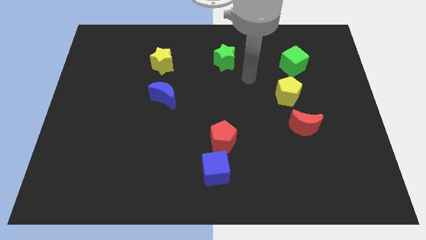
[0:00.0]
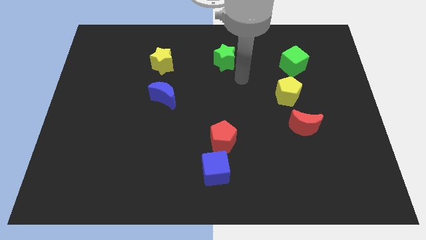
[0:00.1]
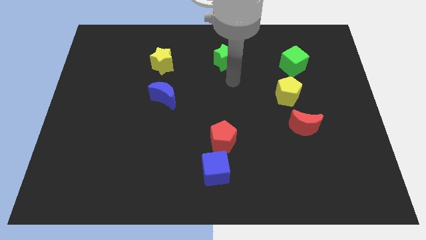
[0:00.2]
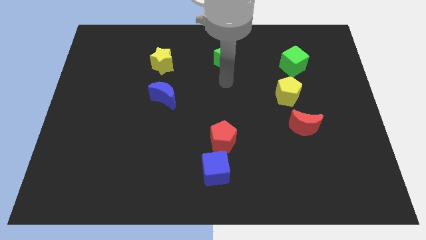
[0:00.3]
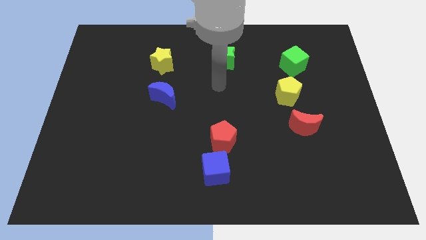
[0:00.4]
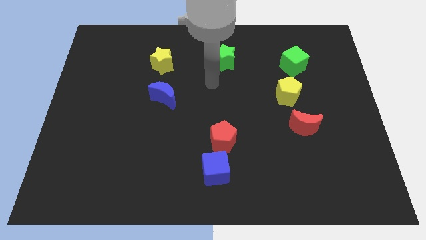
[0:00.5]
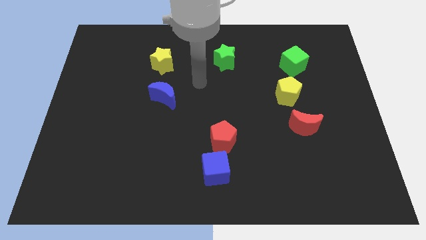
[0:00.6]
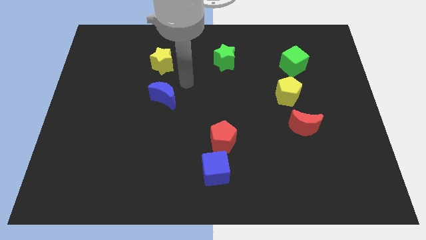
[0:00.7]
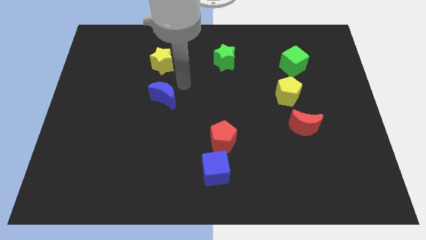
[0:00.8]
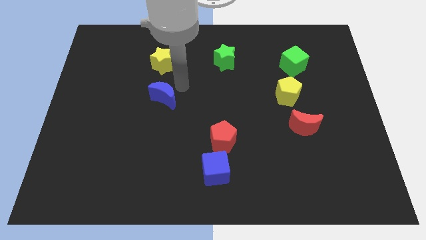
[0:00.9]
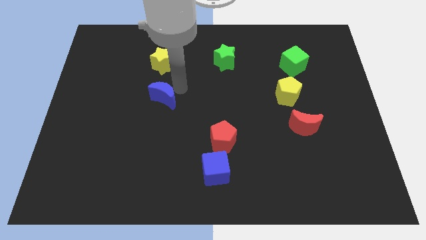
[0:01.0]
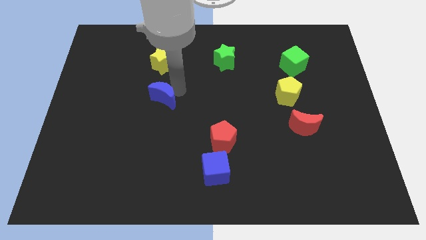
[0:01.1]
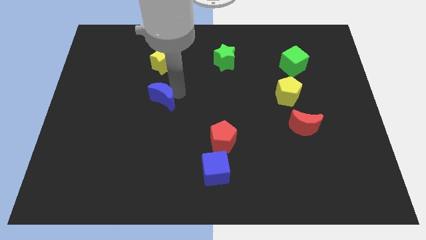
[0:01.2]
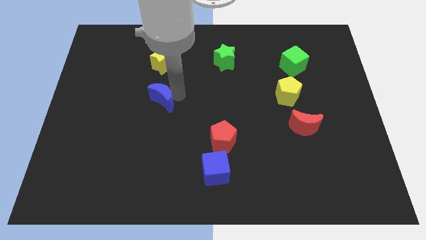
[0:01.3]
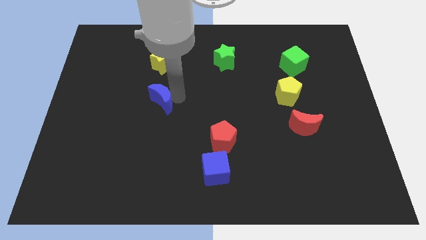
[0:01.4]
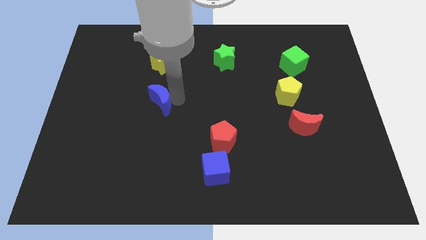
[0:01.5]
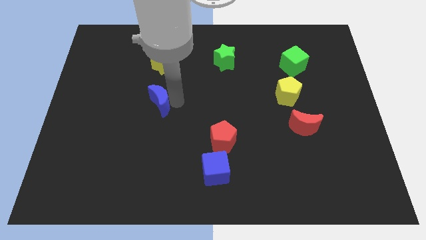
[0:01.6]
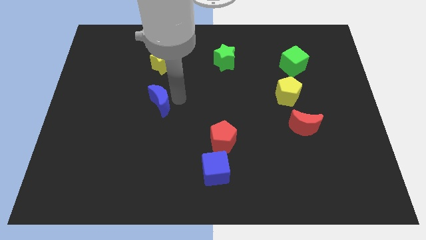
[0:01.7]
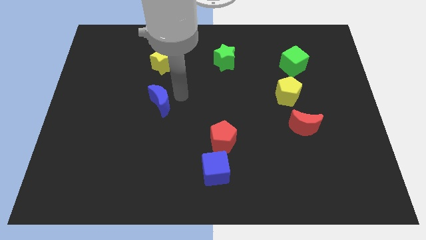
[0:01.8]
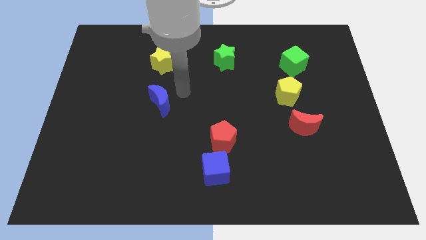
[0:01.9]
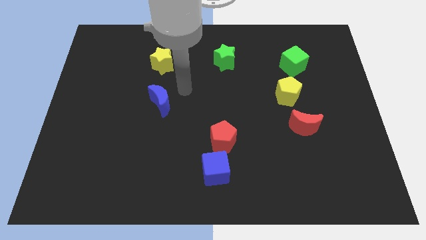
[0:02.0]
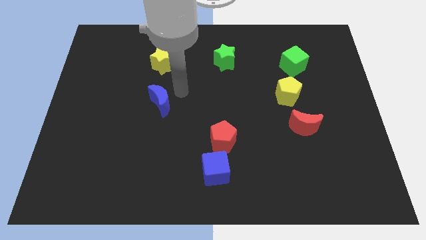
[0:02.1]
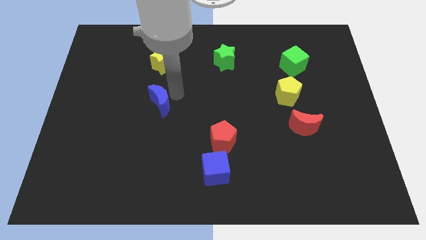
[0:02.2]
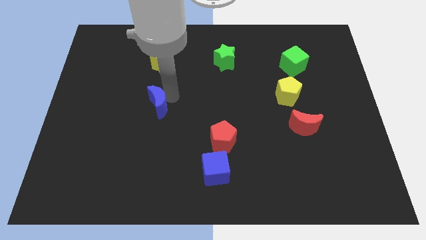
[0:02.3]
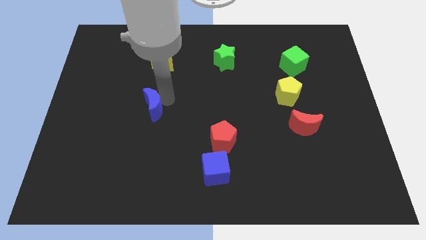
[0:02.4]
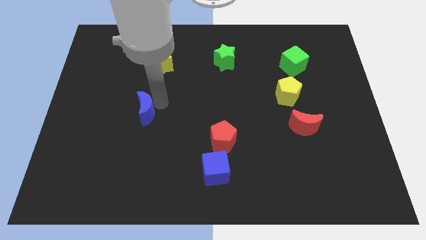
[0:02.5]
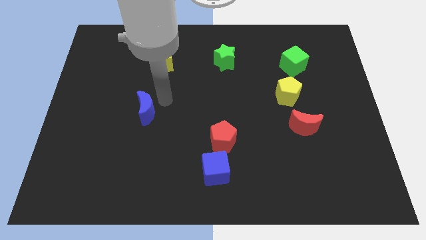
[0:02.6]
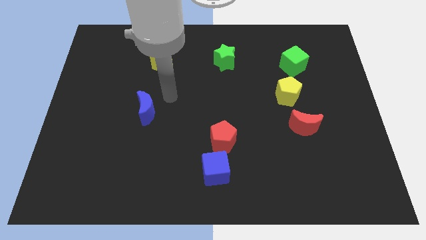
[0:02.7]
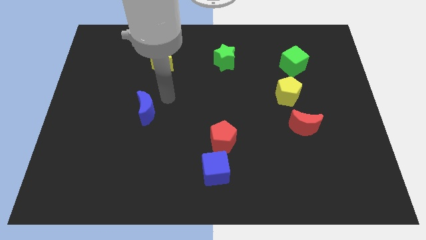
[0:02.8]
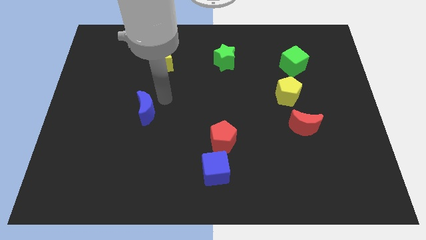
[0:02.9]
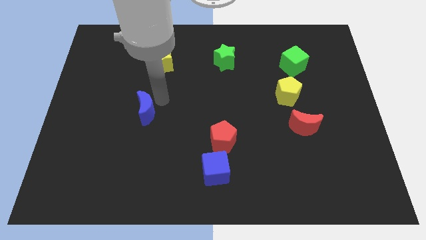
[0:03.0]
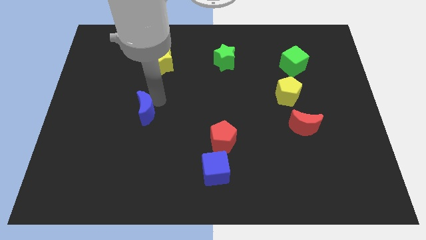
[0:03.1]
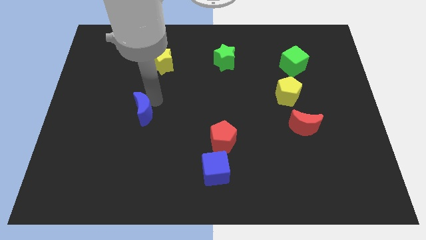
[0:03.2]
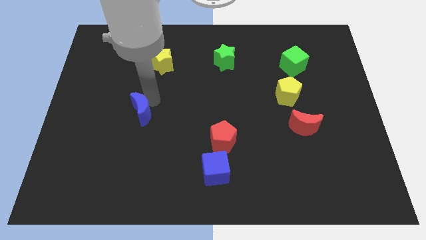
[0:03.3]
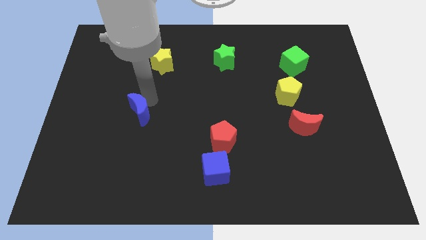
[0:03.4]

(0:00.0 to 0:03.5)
move the blue moon somewhat down and to the left diagonally

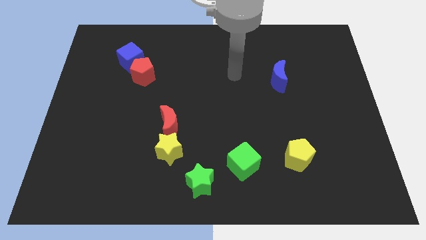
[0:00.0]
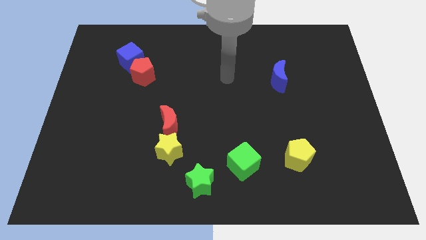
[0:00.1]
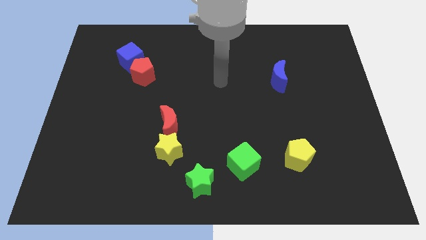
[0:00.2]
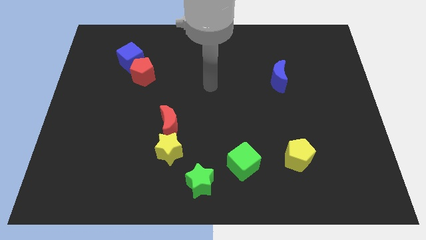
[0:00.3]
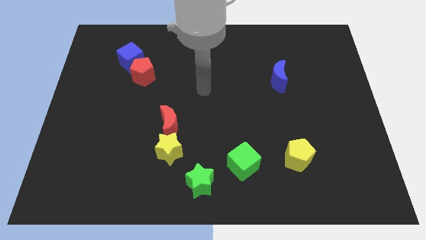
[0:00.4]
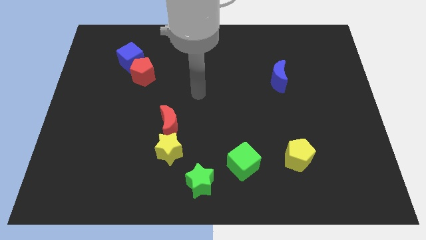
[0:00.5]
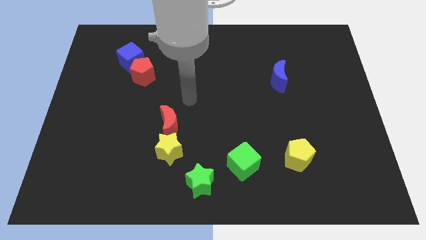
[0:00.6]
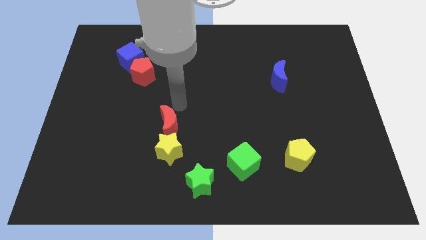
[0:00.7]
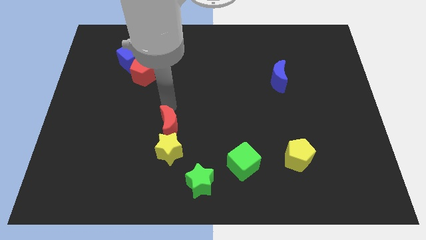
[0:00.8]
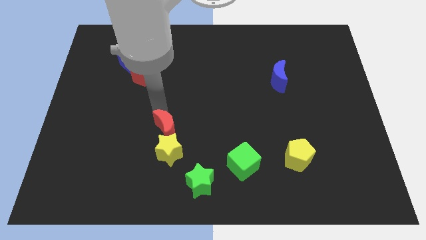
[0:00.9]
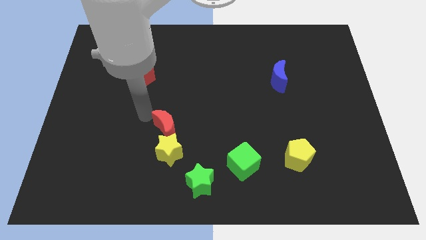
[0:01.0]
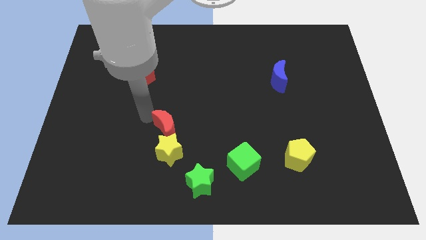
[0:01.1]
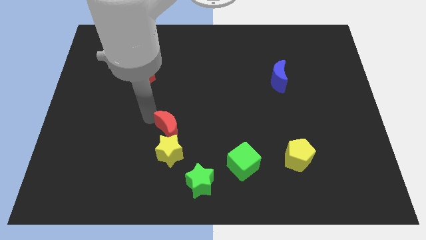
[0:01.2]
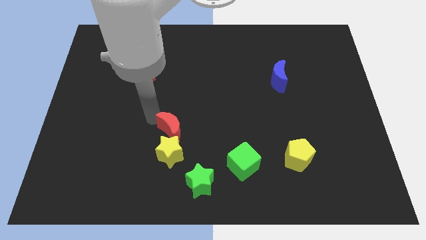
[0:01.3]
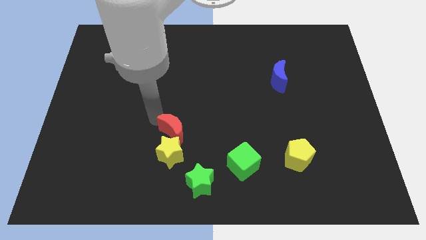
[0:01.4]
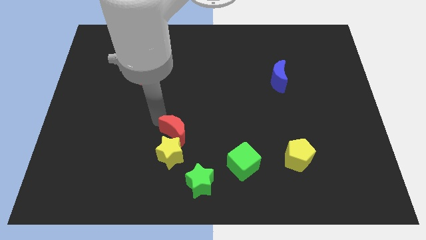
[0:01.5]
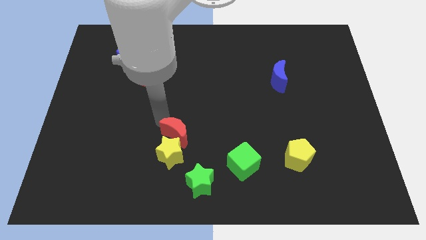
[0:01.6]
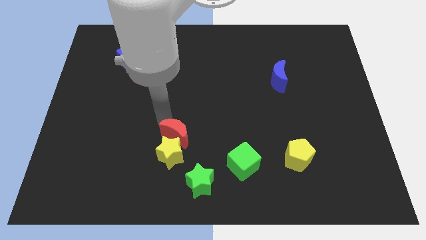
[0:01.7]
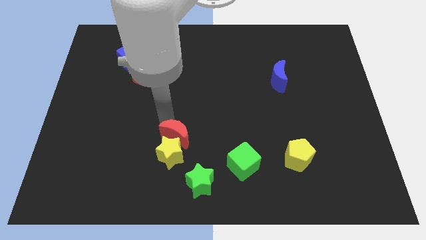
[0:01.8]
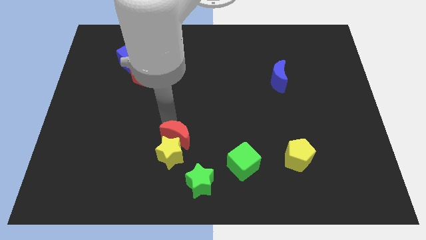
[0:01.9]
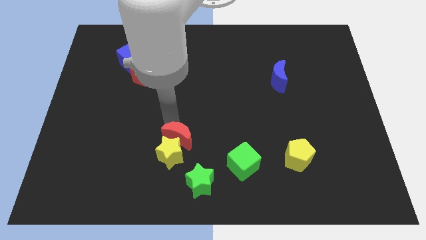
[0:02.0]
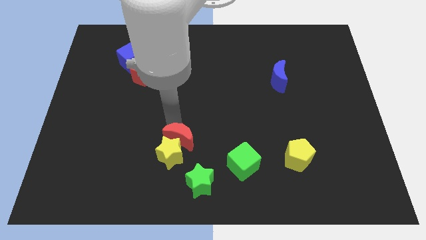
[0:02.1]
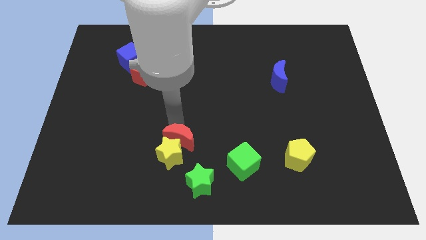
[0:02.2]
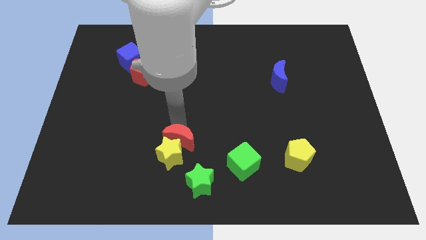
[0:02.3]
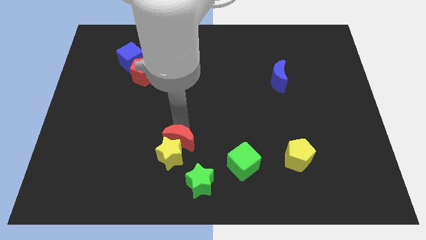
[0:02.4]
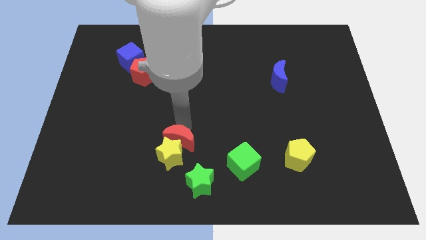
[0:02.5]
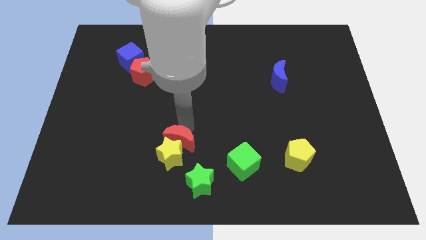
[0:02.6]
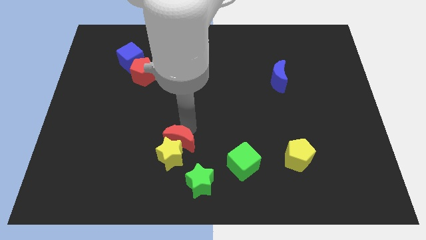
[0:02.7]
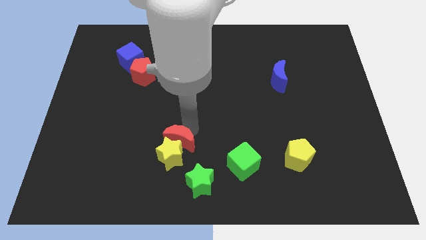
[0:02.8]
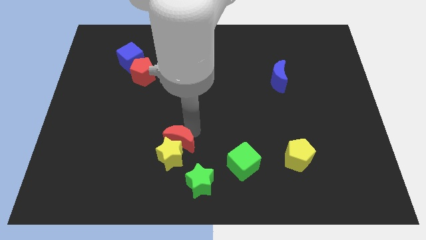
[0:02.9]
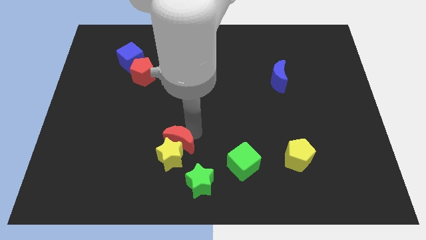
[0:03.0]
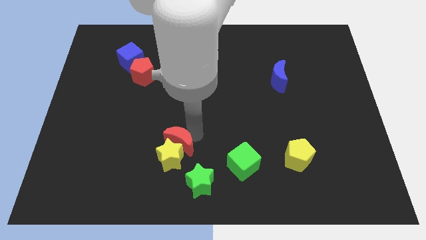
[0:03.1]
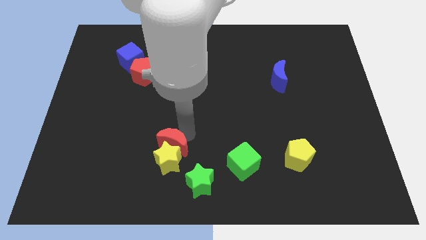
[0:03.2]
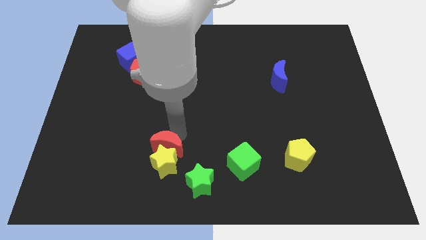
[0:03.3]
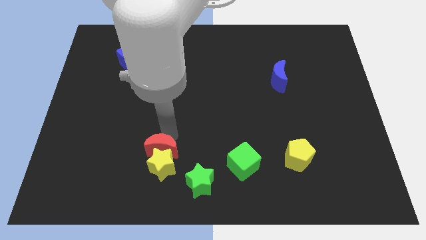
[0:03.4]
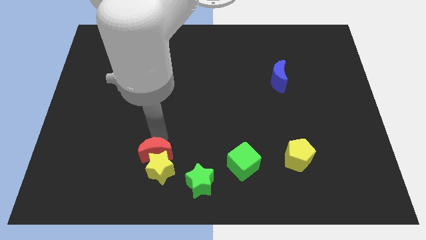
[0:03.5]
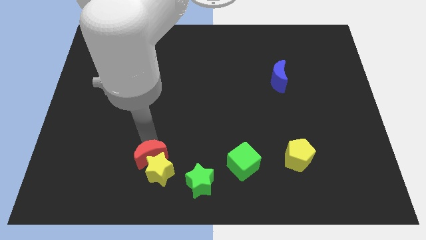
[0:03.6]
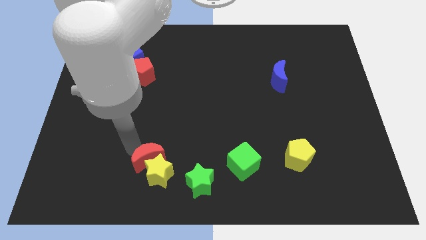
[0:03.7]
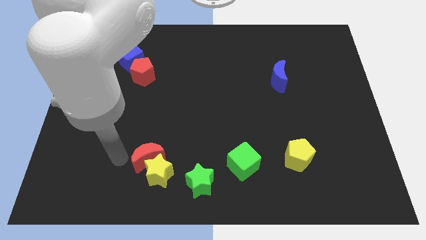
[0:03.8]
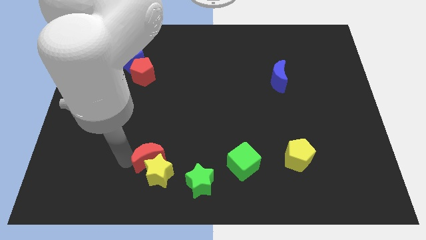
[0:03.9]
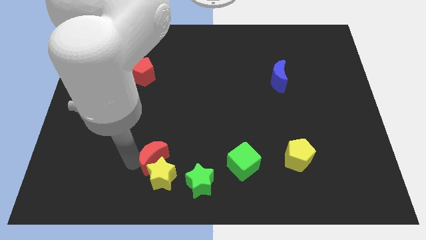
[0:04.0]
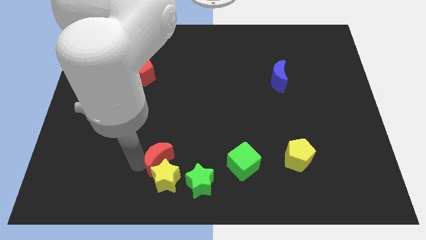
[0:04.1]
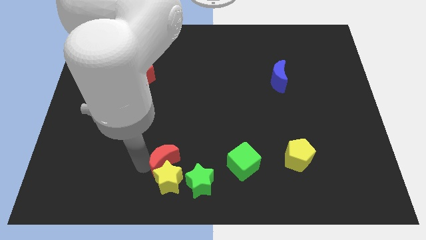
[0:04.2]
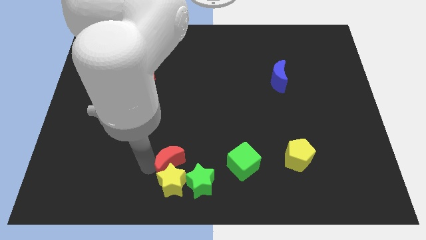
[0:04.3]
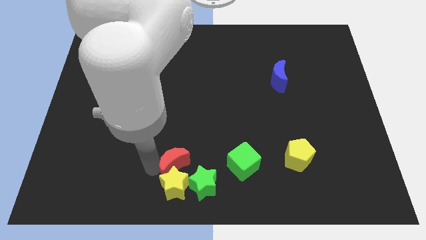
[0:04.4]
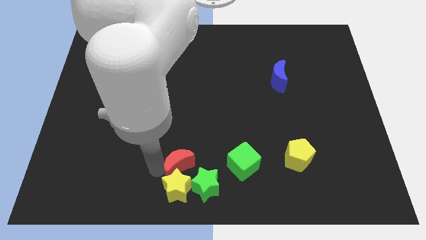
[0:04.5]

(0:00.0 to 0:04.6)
push the red moon diagonally downwards and right somewhat
